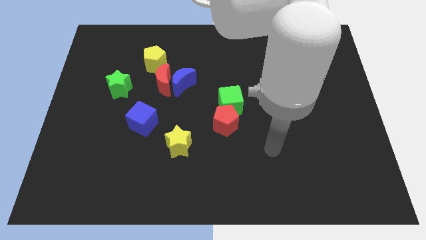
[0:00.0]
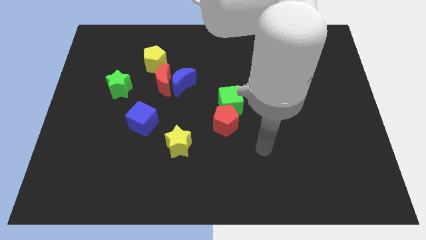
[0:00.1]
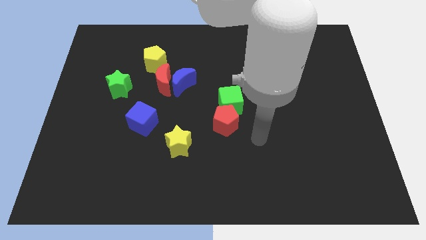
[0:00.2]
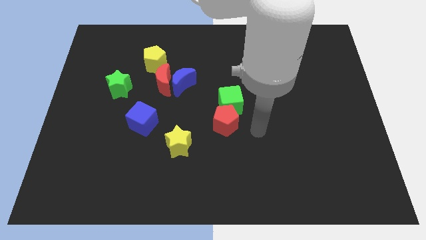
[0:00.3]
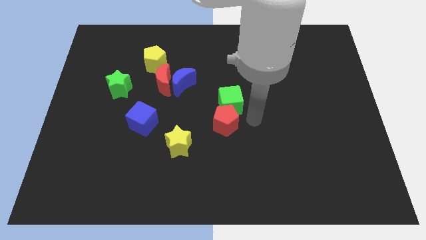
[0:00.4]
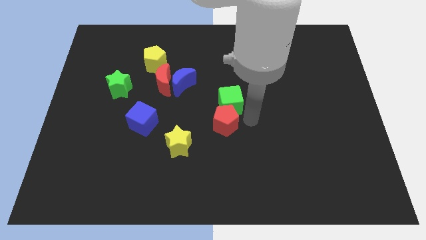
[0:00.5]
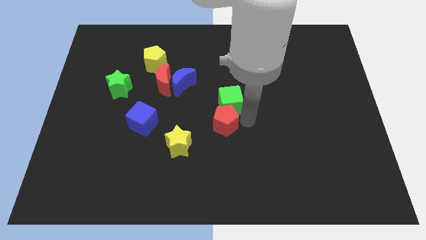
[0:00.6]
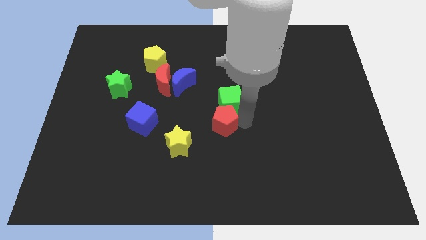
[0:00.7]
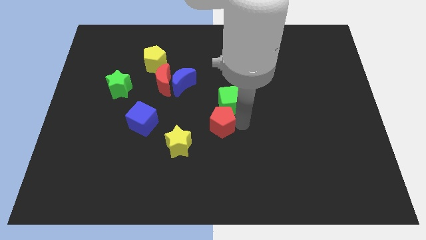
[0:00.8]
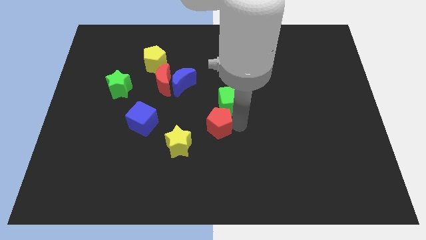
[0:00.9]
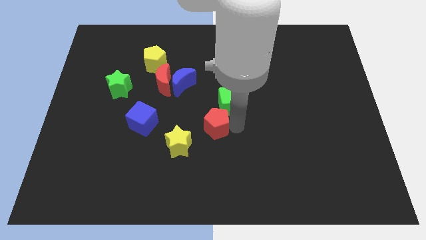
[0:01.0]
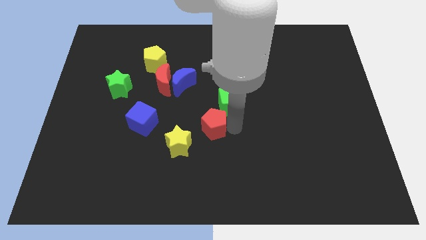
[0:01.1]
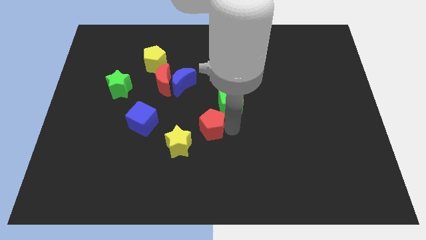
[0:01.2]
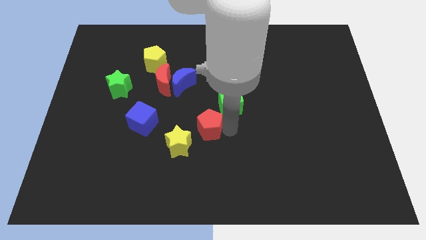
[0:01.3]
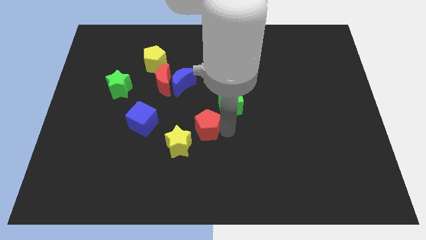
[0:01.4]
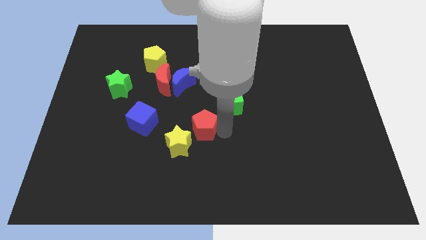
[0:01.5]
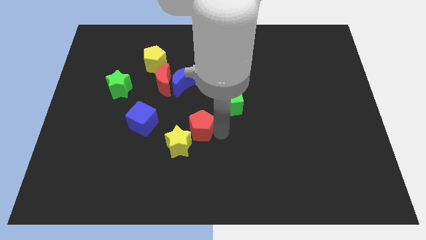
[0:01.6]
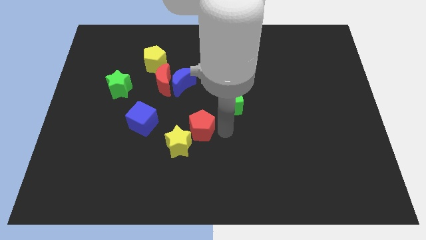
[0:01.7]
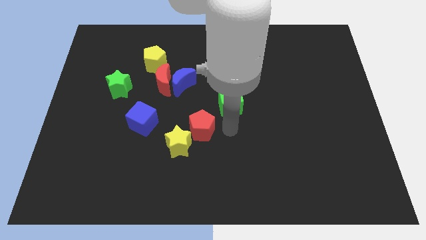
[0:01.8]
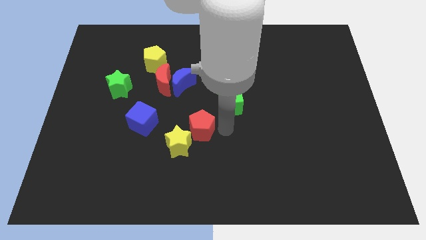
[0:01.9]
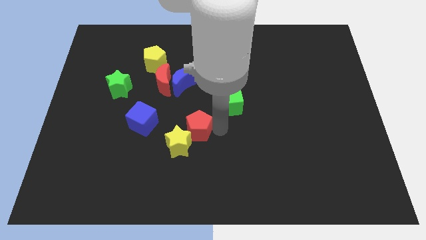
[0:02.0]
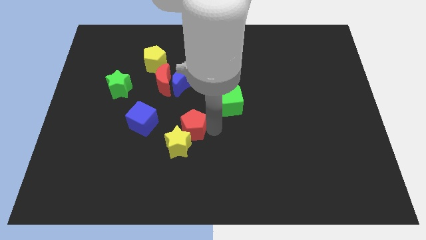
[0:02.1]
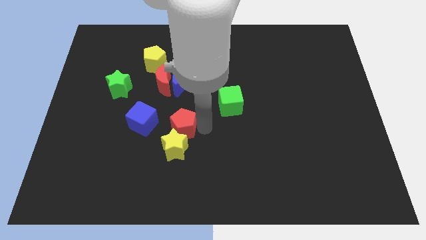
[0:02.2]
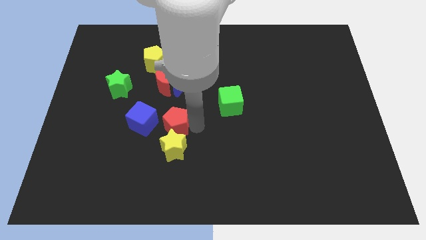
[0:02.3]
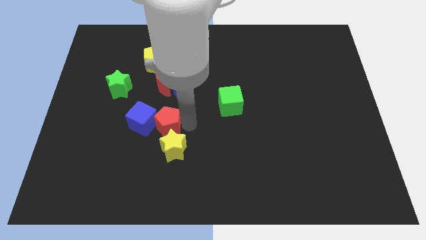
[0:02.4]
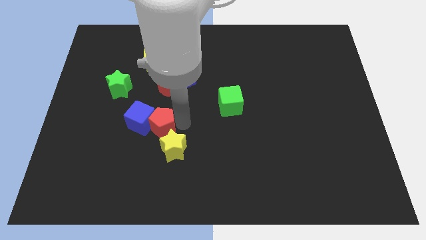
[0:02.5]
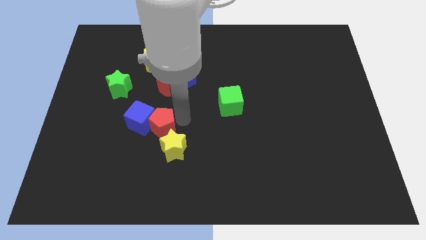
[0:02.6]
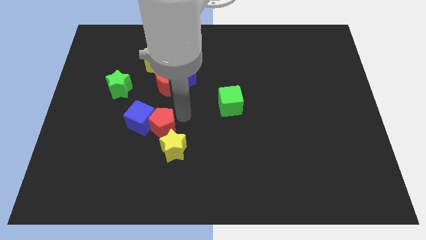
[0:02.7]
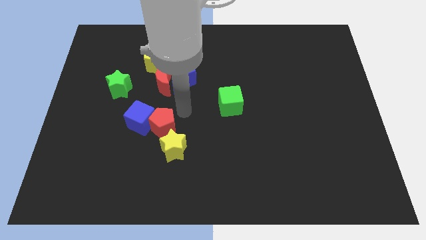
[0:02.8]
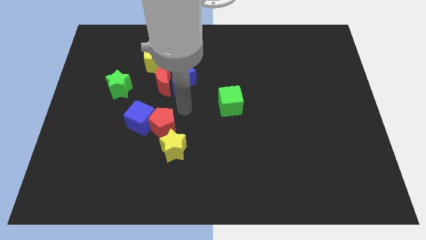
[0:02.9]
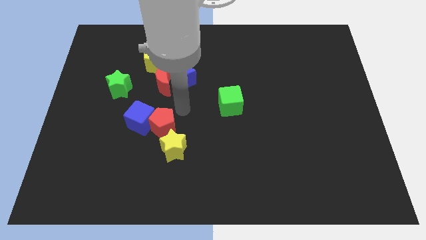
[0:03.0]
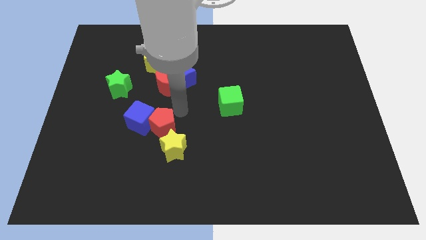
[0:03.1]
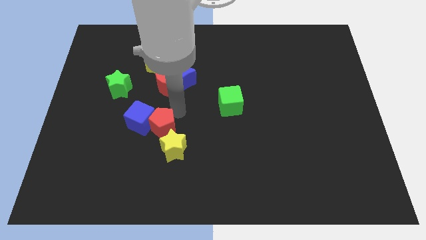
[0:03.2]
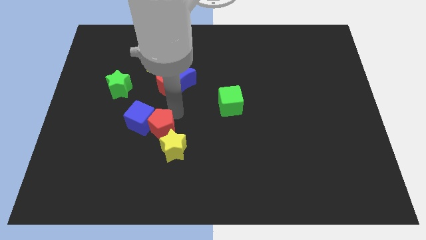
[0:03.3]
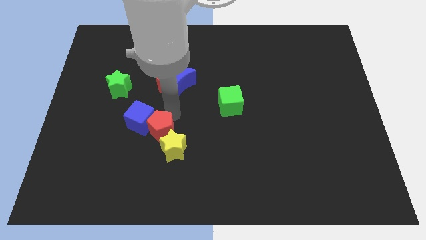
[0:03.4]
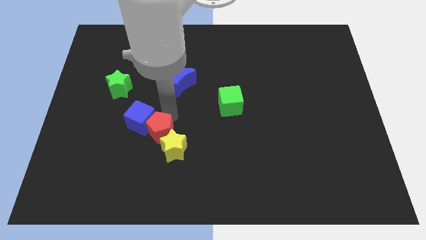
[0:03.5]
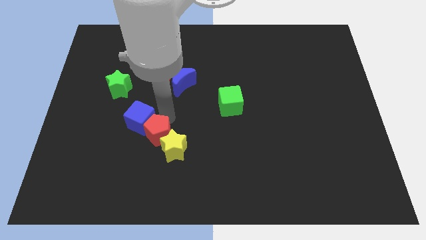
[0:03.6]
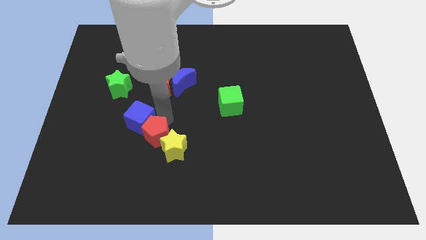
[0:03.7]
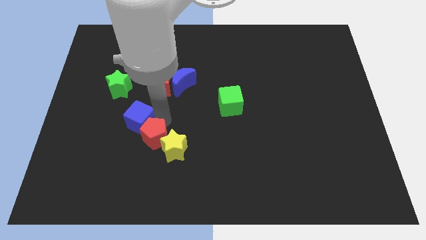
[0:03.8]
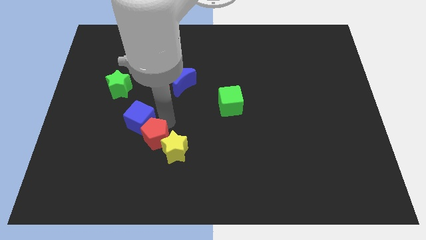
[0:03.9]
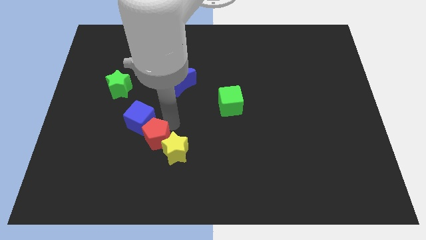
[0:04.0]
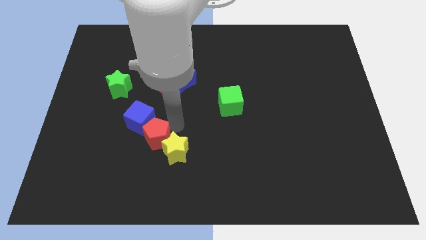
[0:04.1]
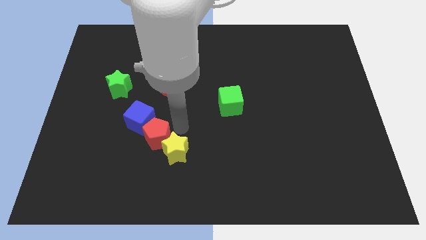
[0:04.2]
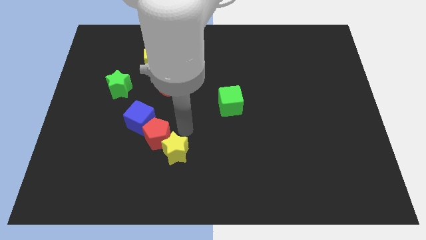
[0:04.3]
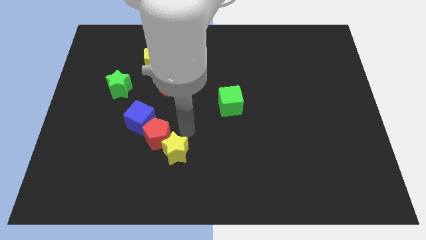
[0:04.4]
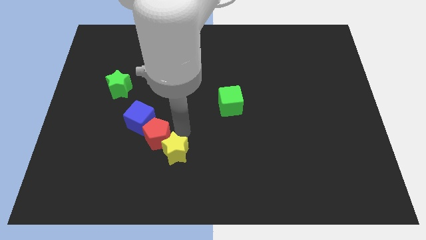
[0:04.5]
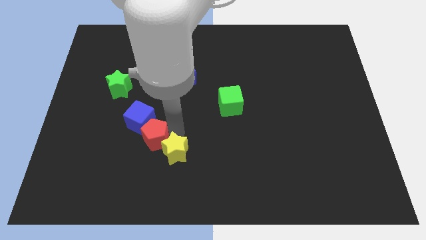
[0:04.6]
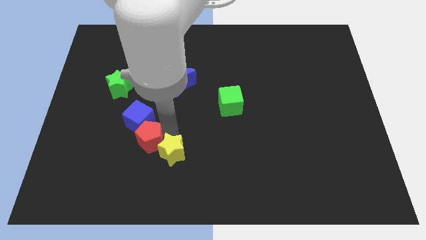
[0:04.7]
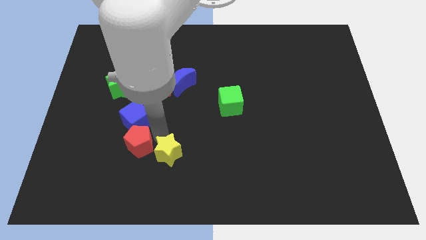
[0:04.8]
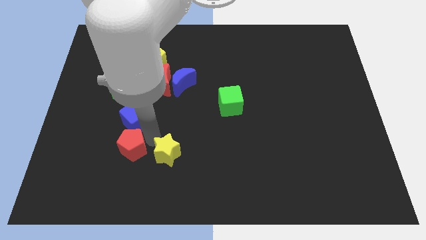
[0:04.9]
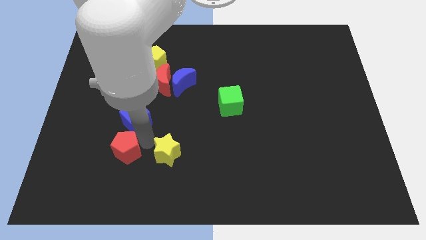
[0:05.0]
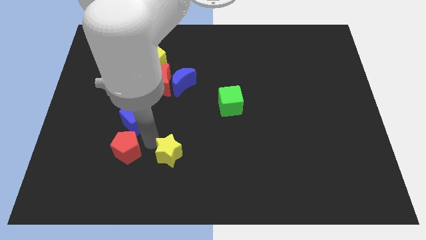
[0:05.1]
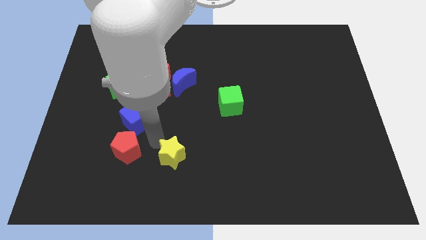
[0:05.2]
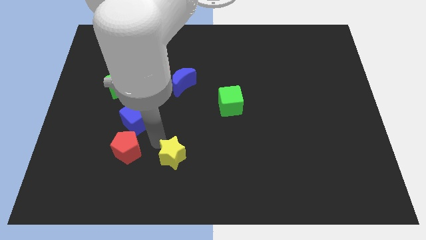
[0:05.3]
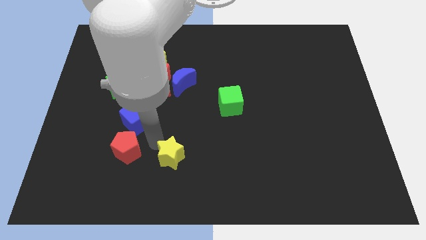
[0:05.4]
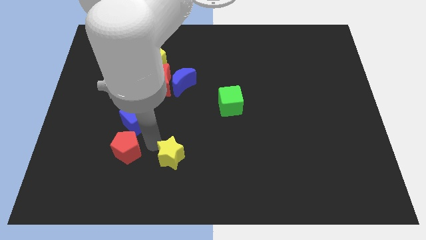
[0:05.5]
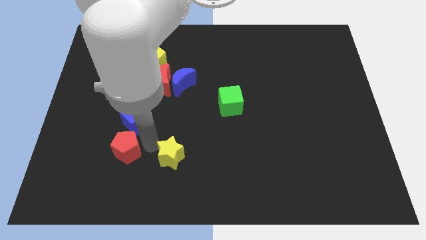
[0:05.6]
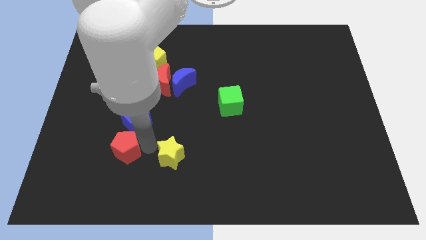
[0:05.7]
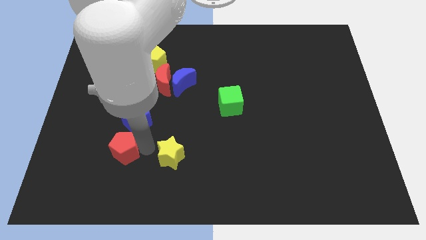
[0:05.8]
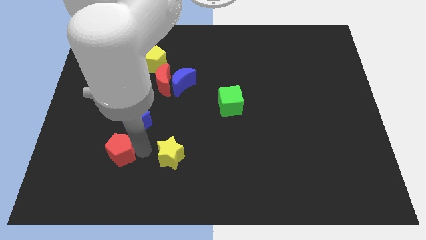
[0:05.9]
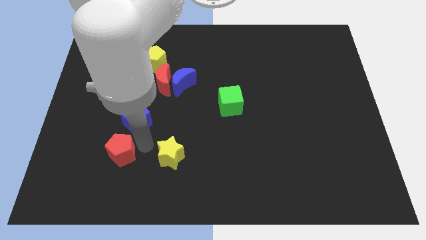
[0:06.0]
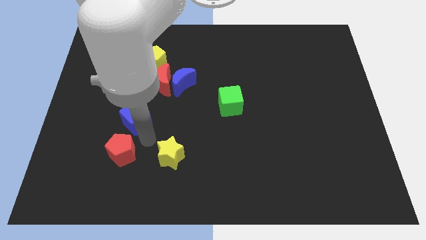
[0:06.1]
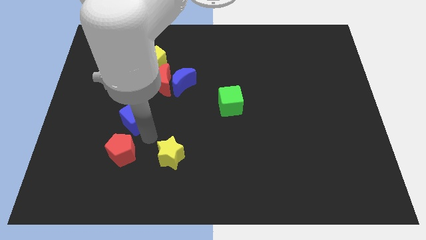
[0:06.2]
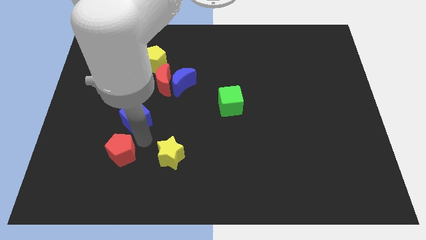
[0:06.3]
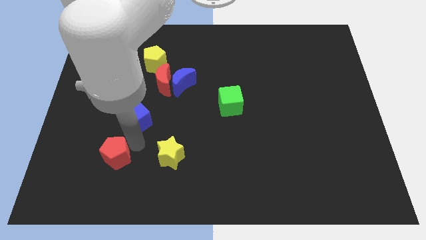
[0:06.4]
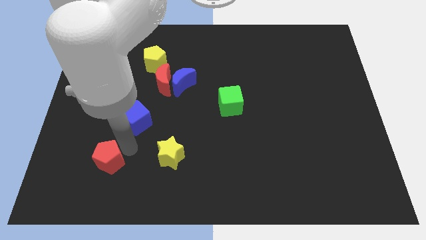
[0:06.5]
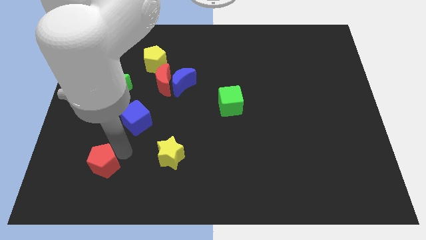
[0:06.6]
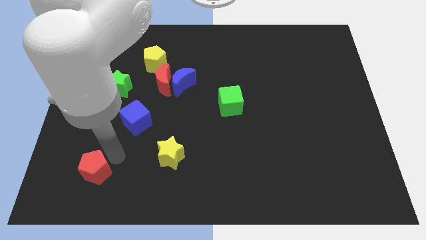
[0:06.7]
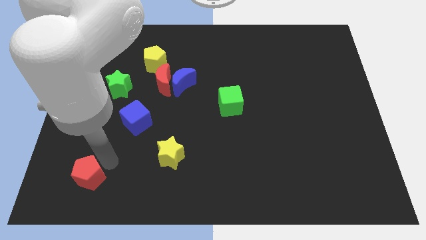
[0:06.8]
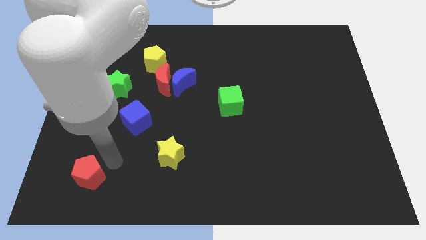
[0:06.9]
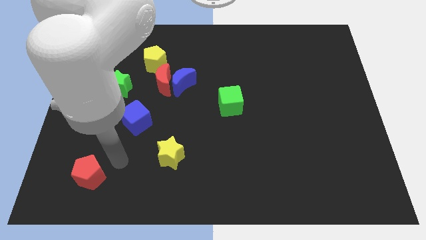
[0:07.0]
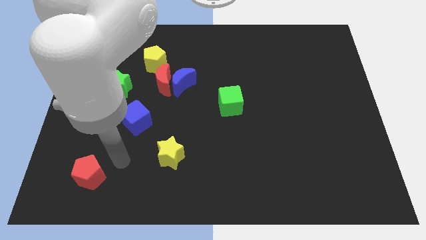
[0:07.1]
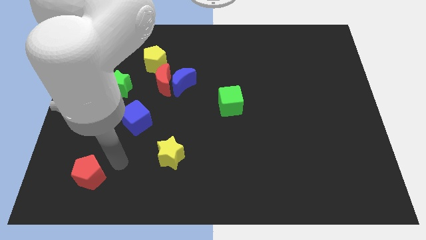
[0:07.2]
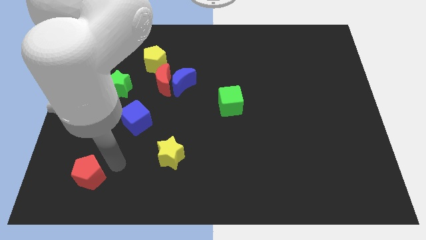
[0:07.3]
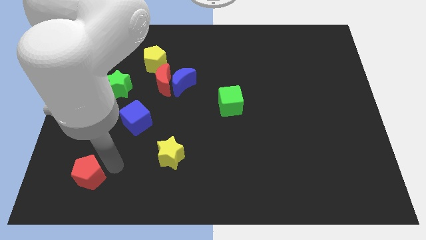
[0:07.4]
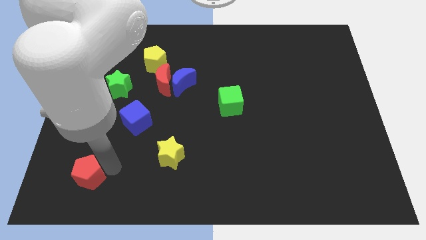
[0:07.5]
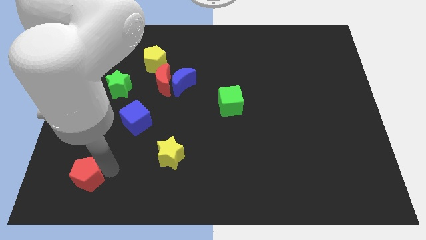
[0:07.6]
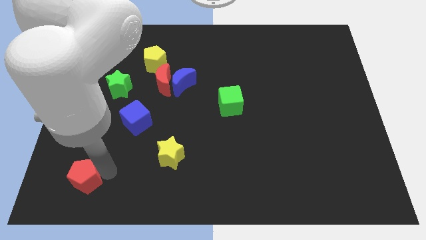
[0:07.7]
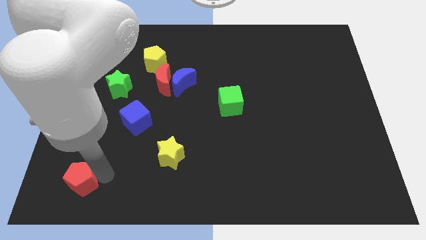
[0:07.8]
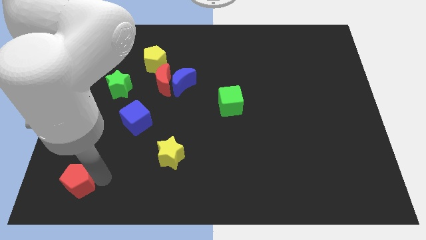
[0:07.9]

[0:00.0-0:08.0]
move the red pentagon to the bottom left corner
